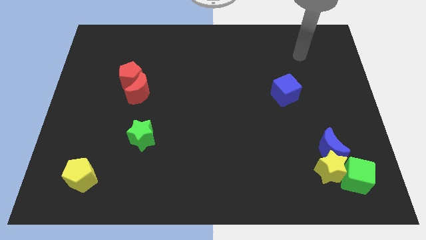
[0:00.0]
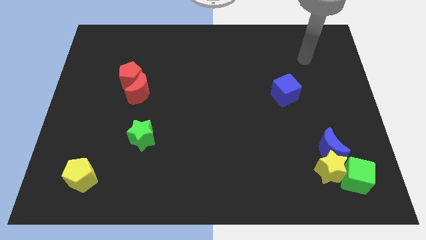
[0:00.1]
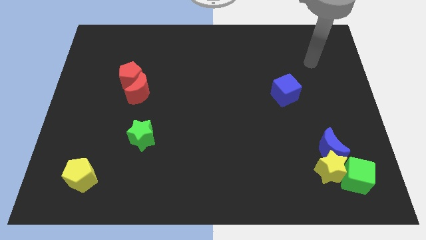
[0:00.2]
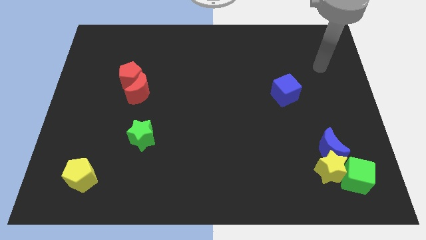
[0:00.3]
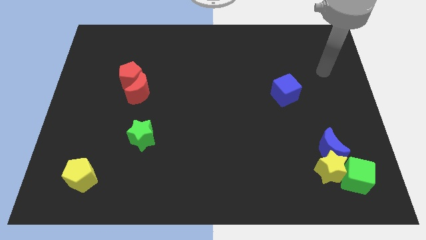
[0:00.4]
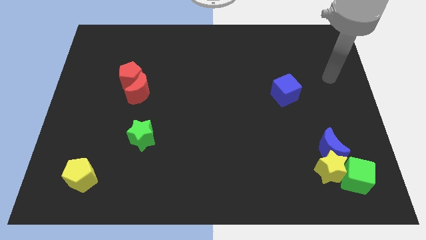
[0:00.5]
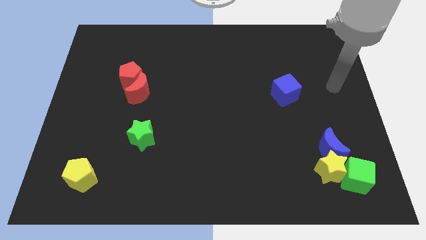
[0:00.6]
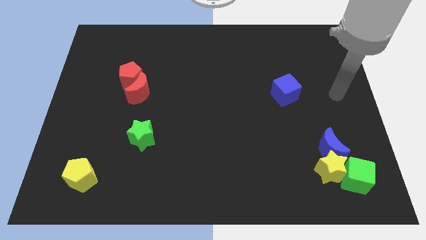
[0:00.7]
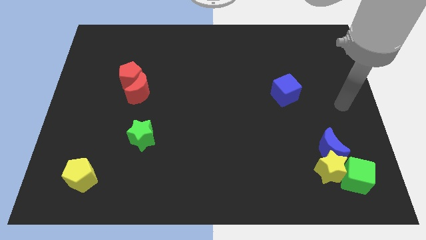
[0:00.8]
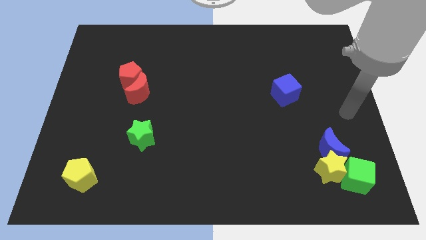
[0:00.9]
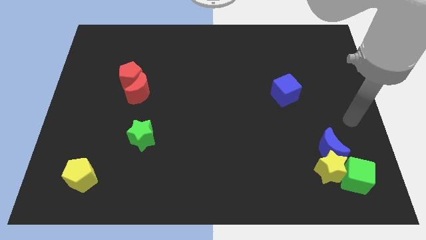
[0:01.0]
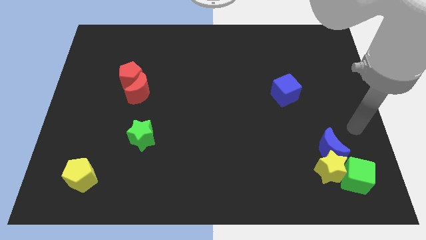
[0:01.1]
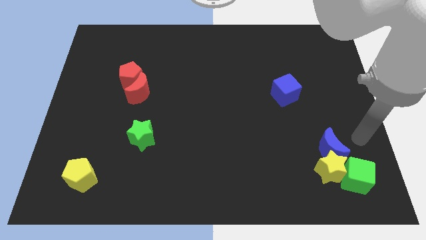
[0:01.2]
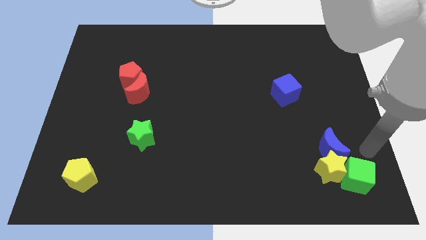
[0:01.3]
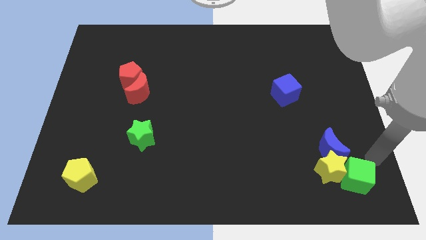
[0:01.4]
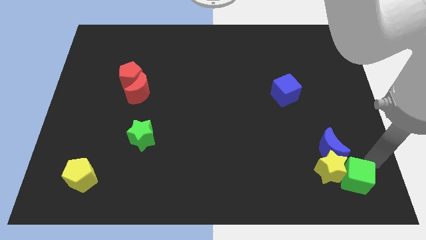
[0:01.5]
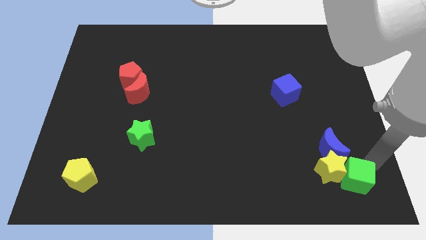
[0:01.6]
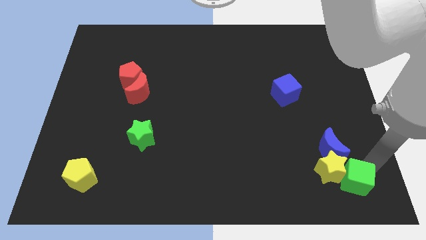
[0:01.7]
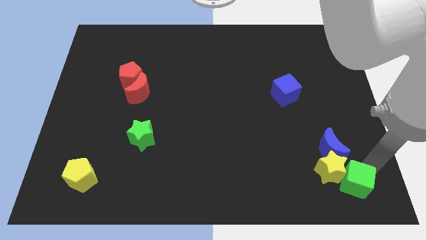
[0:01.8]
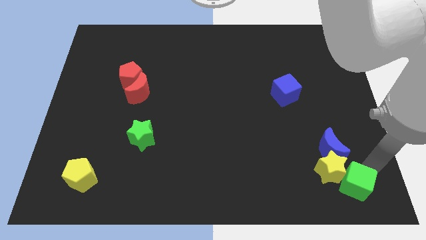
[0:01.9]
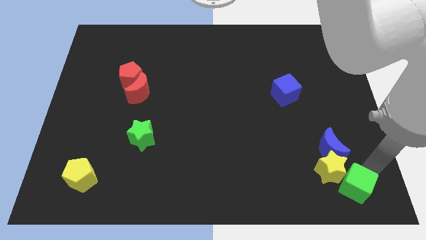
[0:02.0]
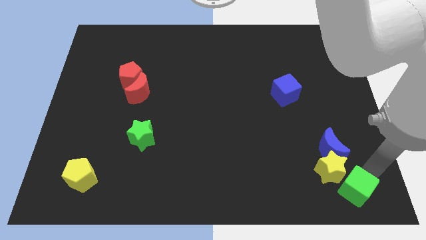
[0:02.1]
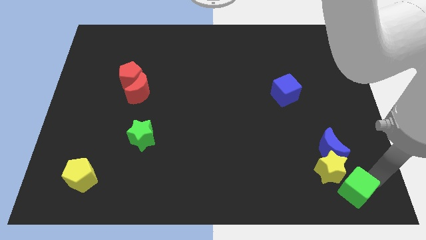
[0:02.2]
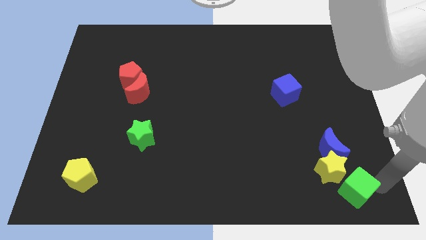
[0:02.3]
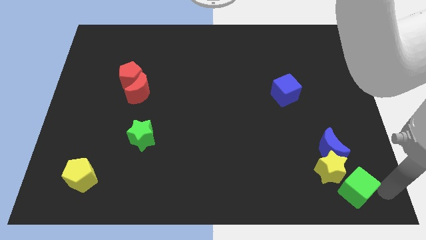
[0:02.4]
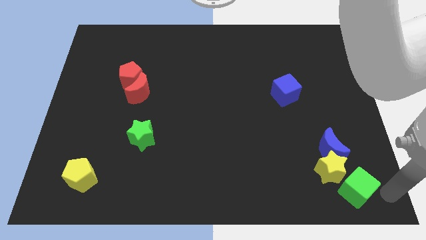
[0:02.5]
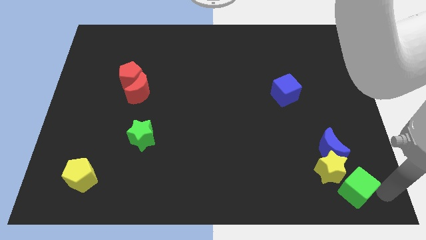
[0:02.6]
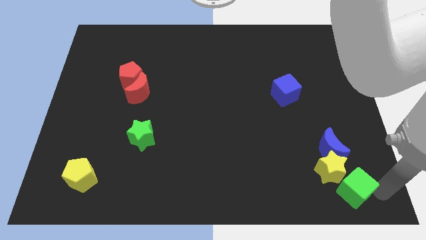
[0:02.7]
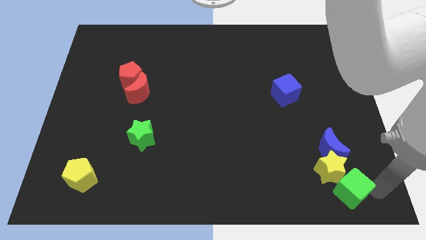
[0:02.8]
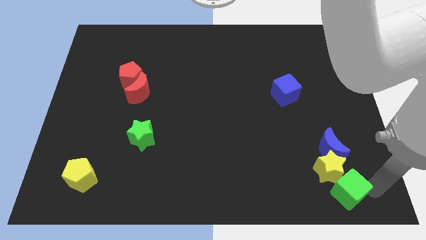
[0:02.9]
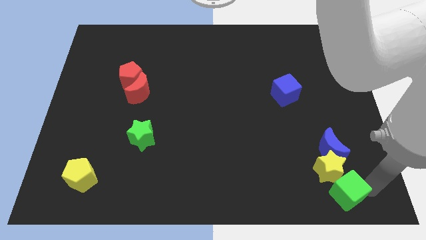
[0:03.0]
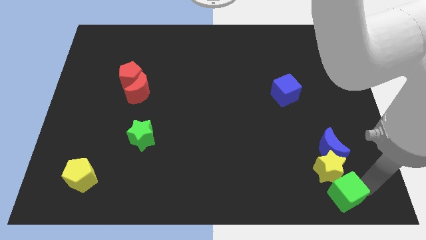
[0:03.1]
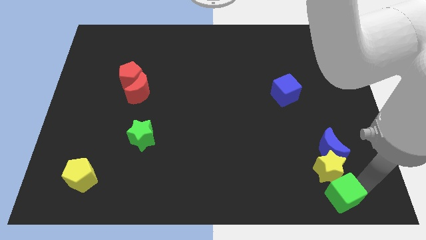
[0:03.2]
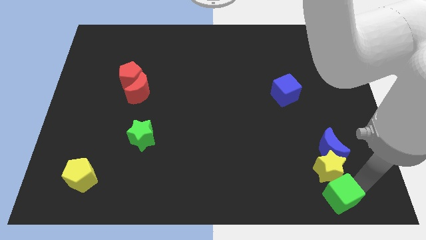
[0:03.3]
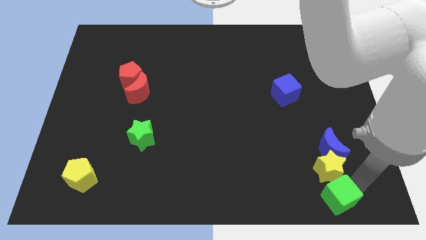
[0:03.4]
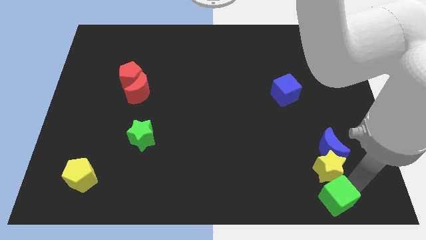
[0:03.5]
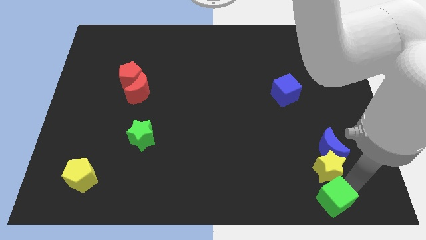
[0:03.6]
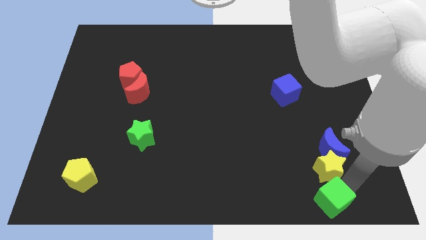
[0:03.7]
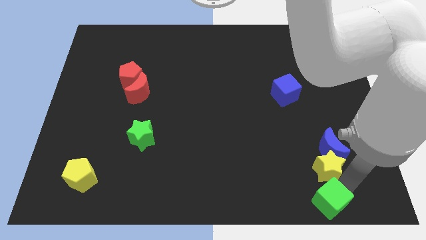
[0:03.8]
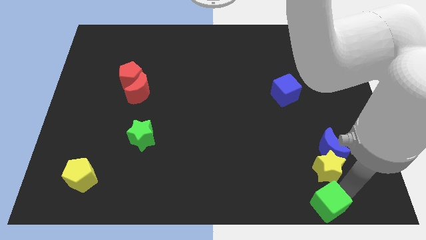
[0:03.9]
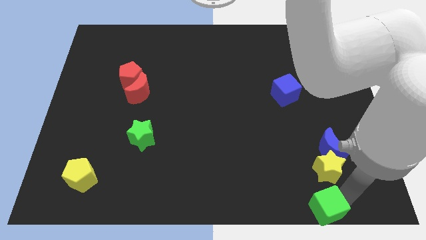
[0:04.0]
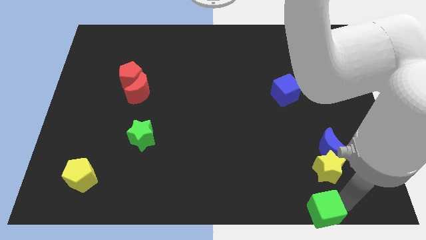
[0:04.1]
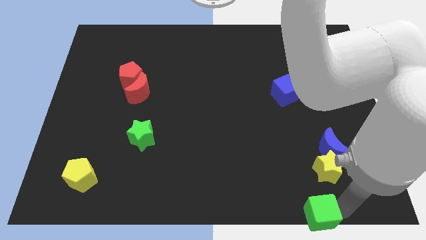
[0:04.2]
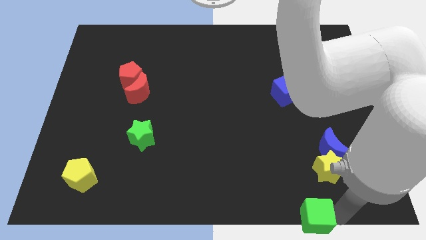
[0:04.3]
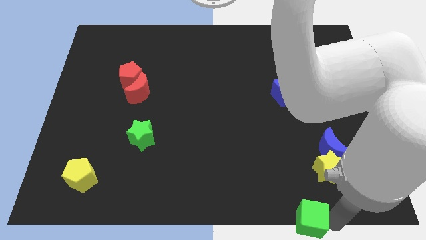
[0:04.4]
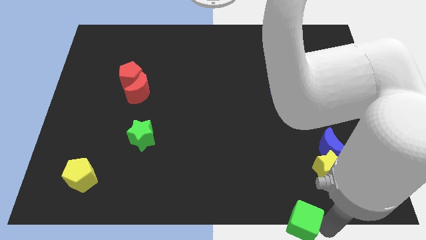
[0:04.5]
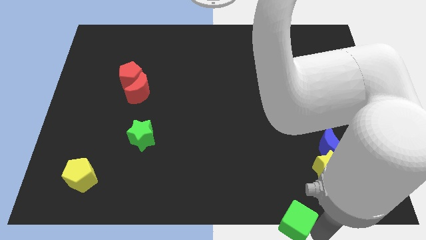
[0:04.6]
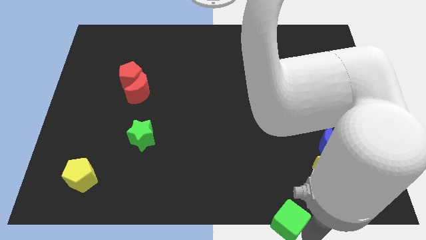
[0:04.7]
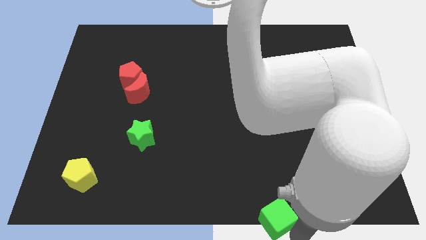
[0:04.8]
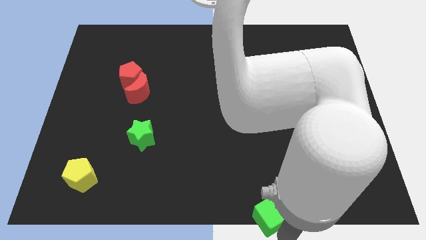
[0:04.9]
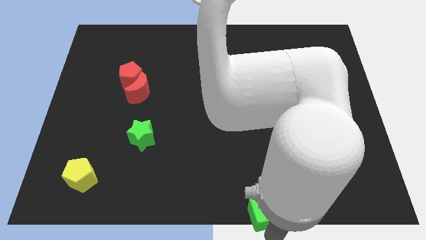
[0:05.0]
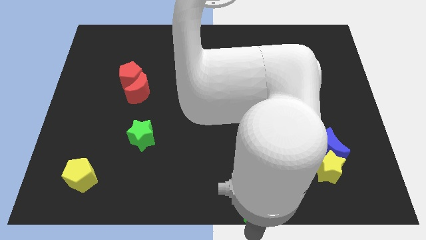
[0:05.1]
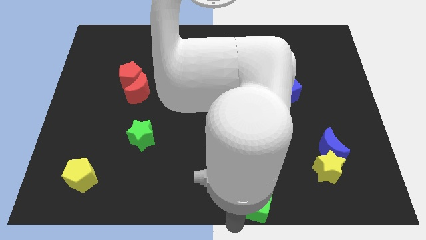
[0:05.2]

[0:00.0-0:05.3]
push the green cube to the left

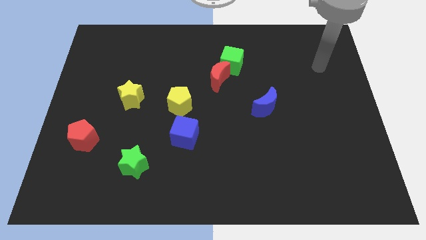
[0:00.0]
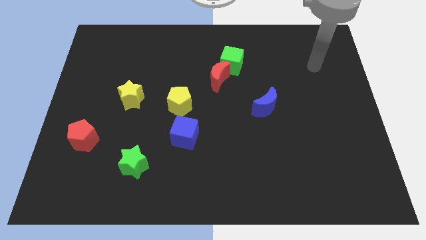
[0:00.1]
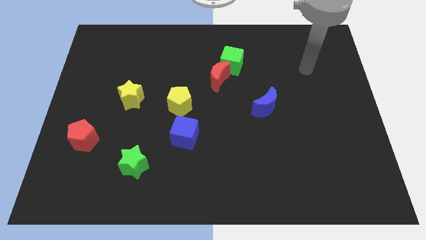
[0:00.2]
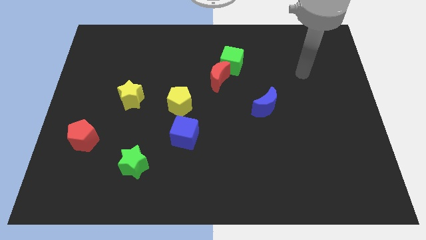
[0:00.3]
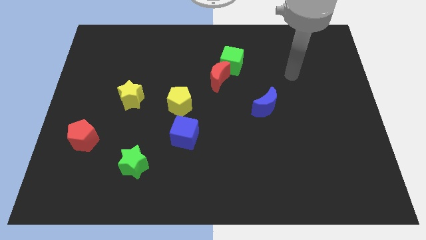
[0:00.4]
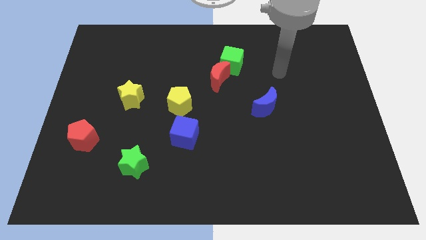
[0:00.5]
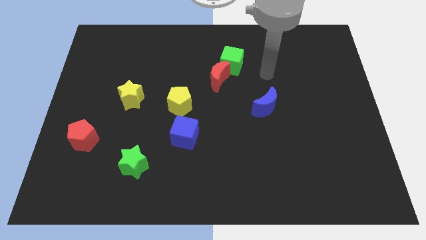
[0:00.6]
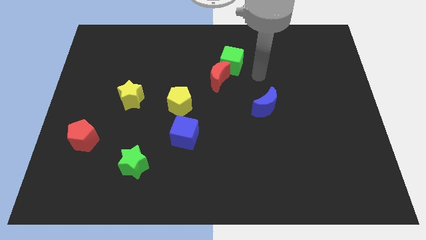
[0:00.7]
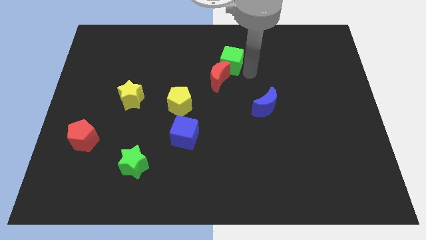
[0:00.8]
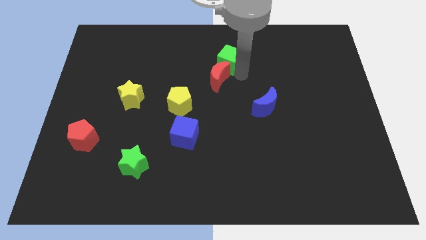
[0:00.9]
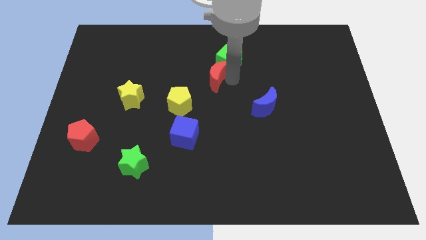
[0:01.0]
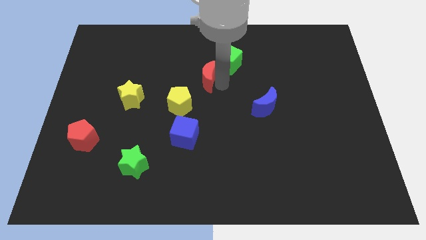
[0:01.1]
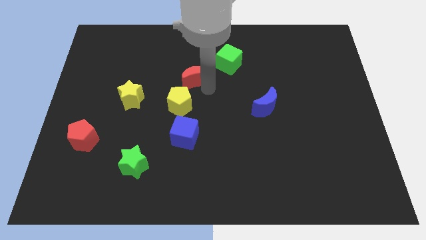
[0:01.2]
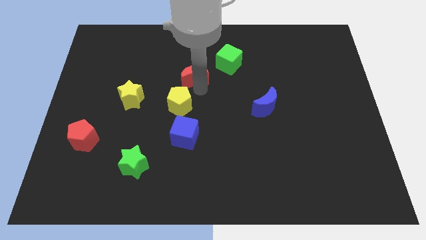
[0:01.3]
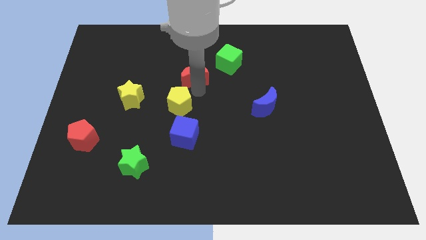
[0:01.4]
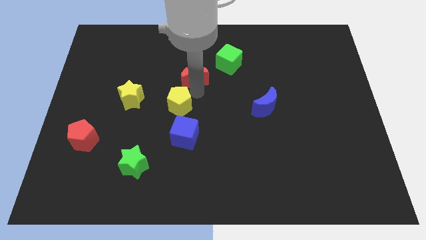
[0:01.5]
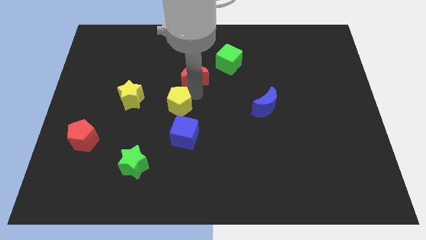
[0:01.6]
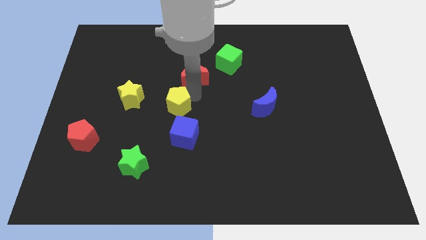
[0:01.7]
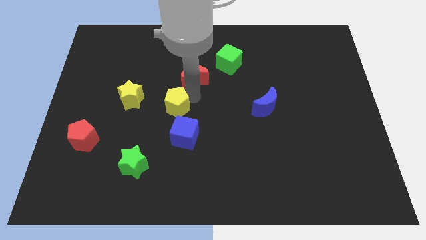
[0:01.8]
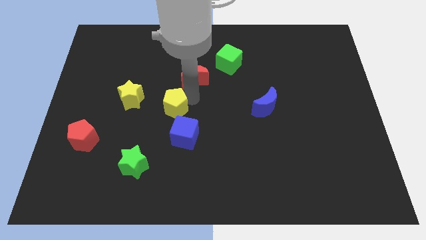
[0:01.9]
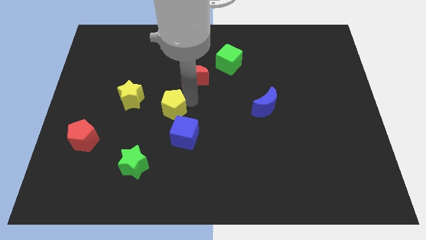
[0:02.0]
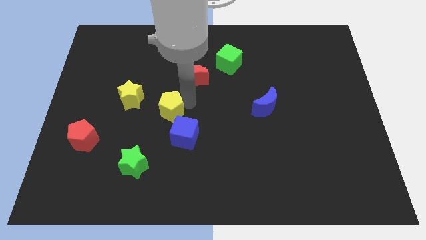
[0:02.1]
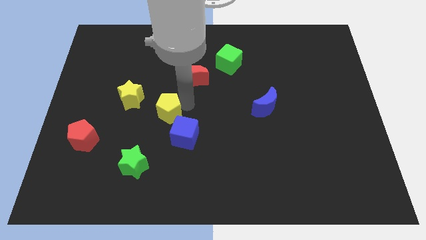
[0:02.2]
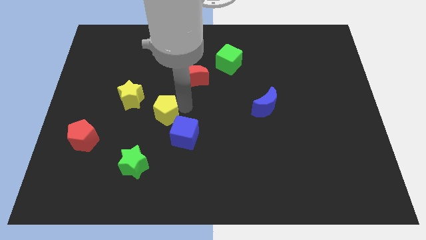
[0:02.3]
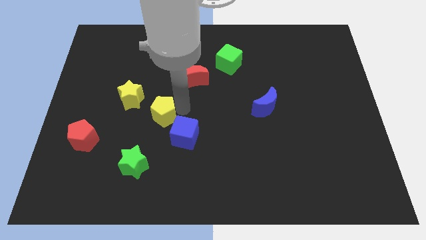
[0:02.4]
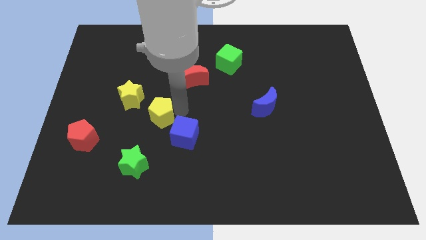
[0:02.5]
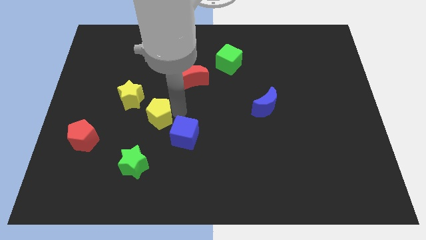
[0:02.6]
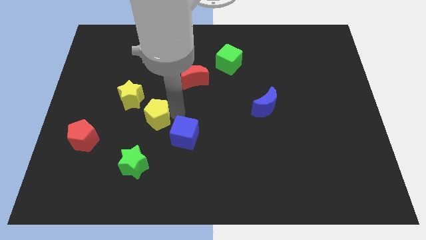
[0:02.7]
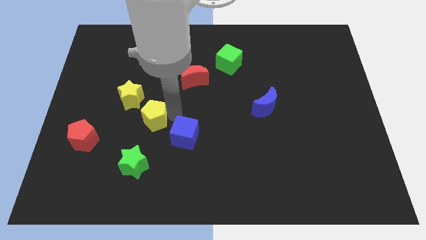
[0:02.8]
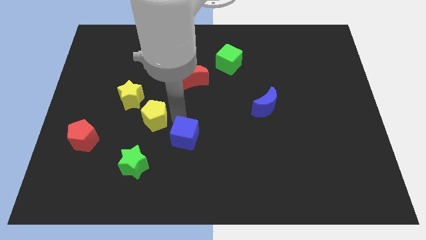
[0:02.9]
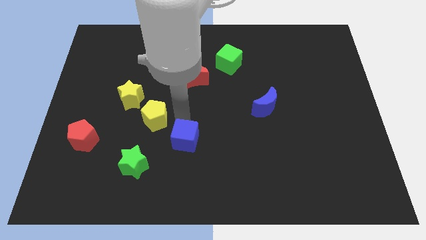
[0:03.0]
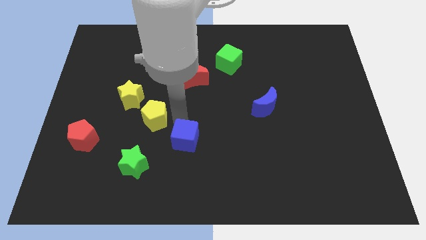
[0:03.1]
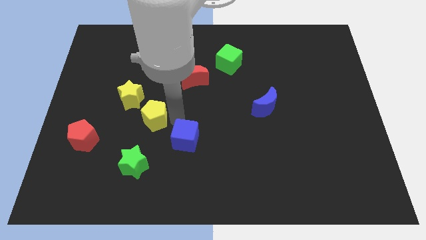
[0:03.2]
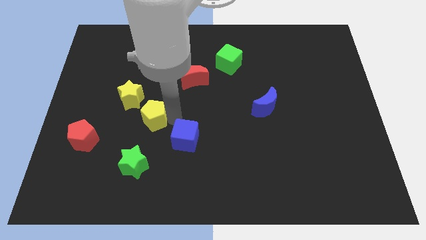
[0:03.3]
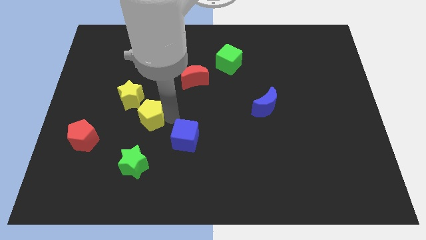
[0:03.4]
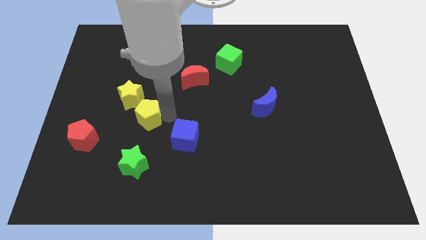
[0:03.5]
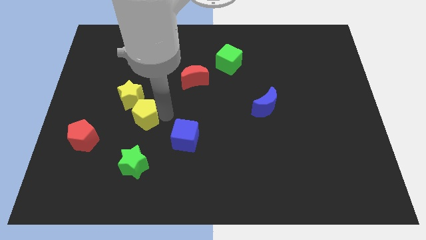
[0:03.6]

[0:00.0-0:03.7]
push the yellow pentagon a bit left
